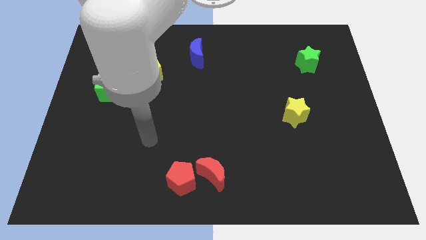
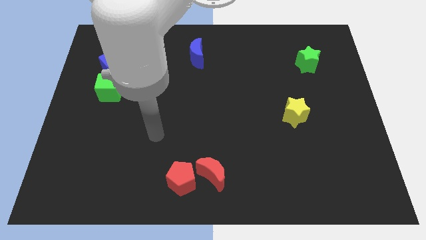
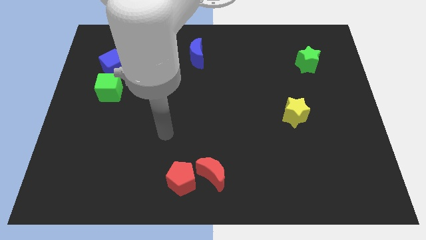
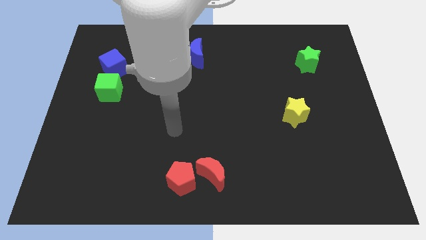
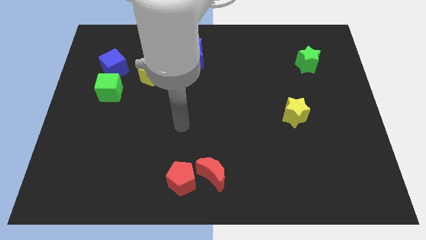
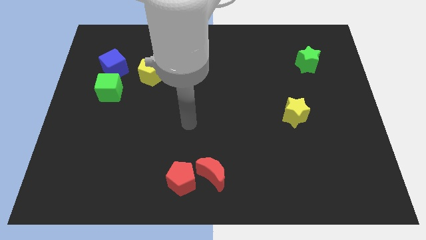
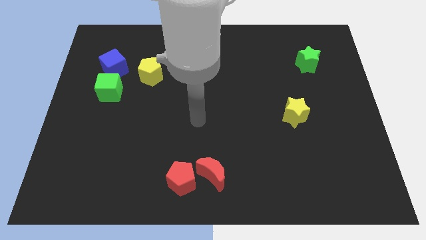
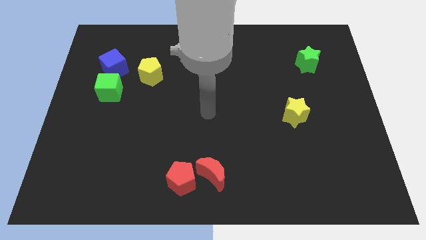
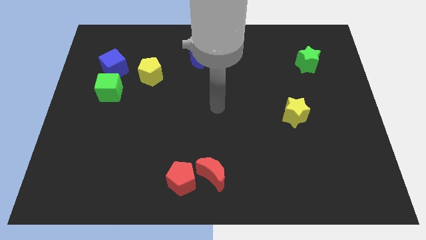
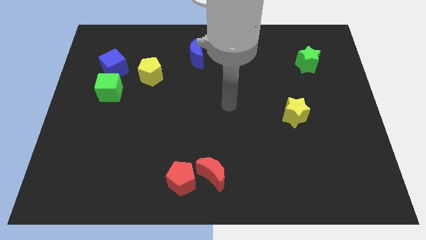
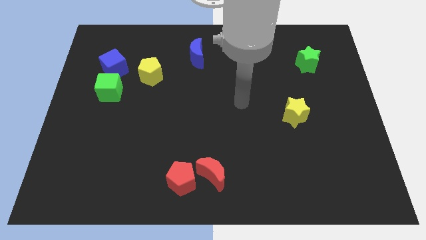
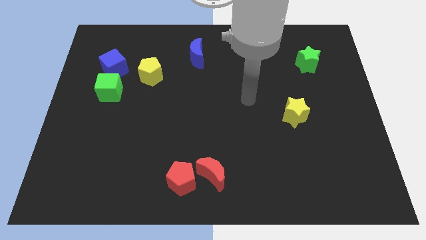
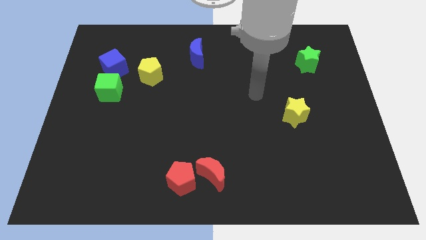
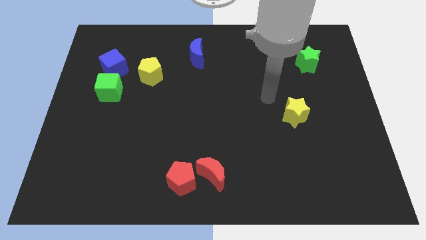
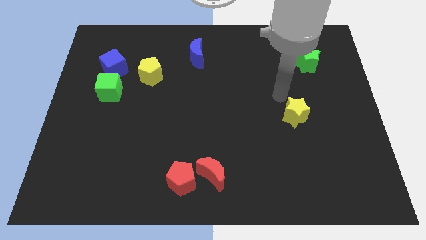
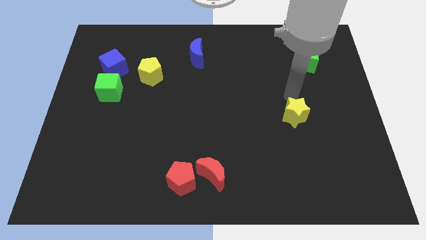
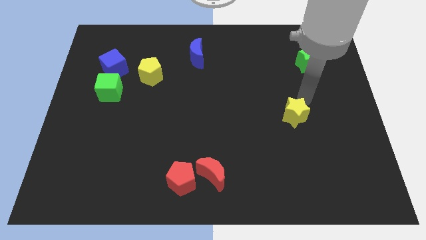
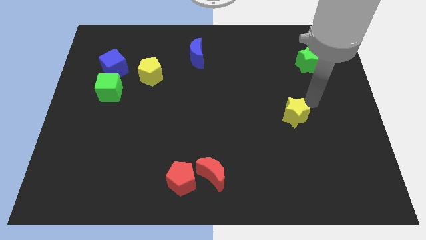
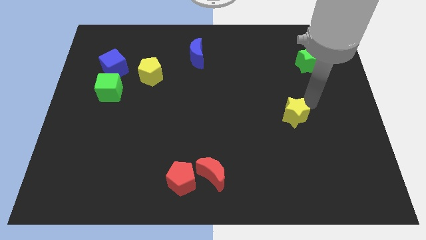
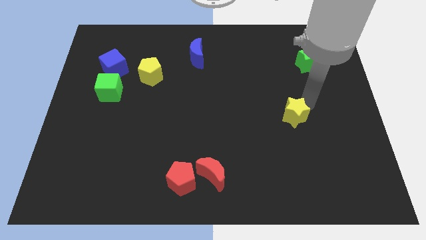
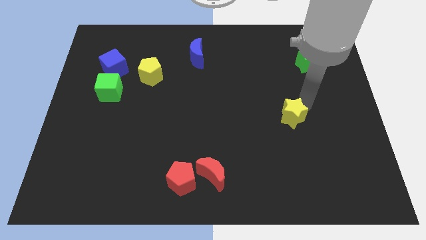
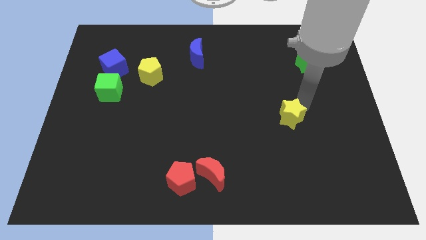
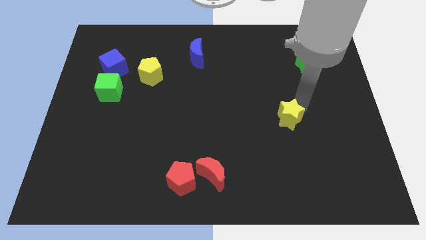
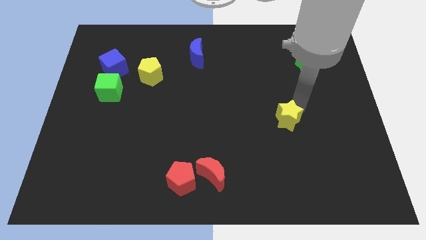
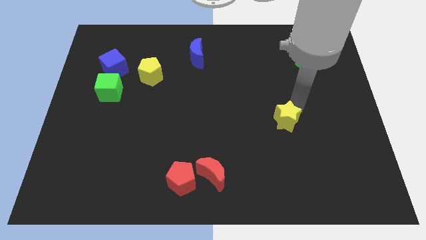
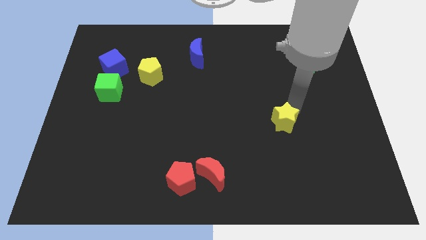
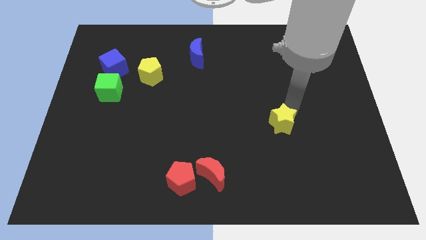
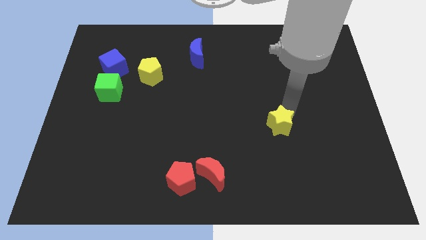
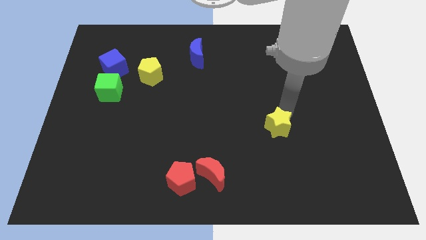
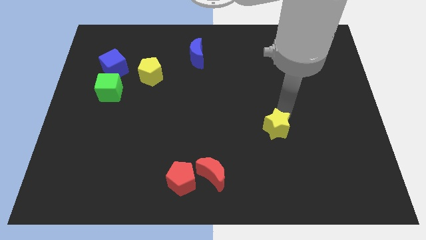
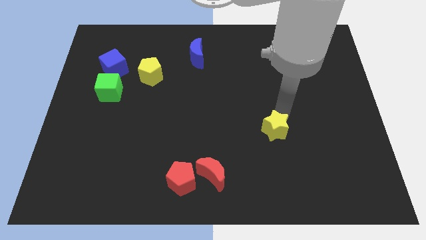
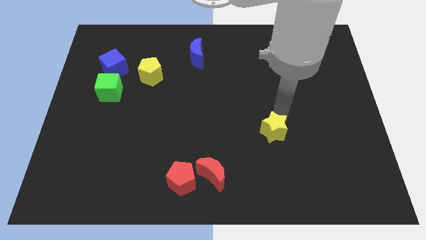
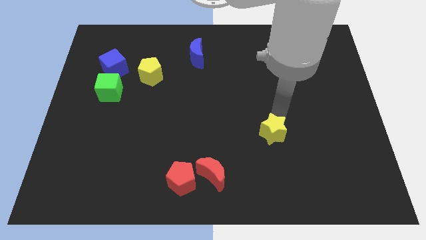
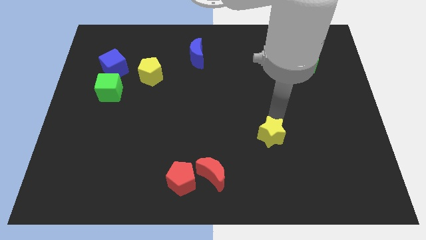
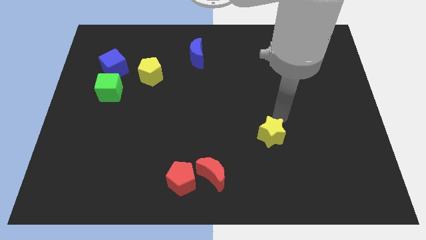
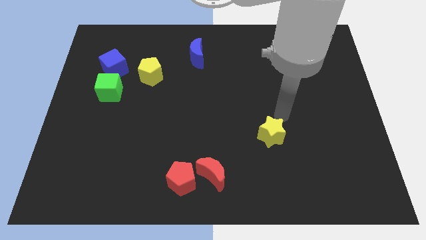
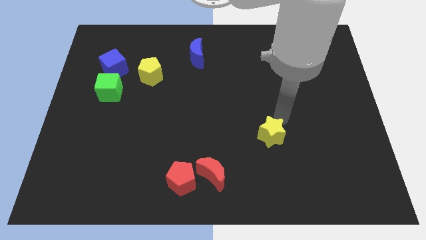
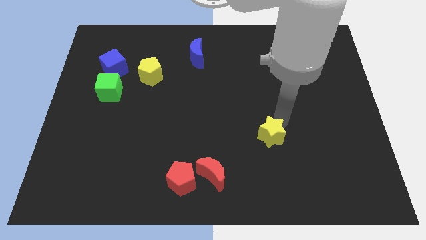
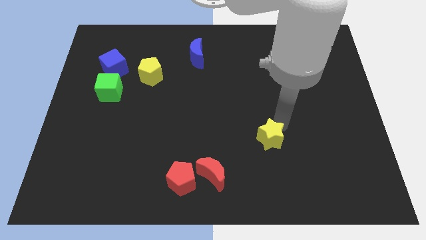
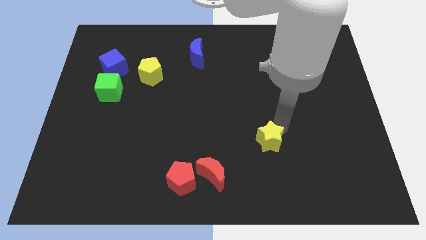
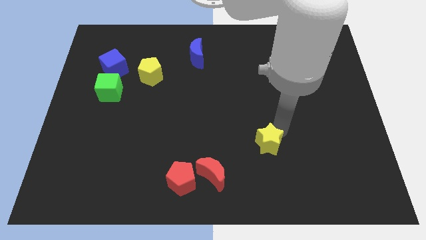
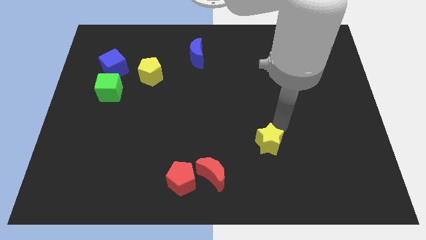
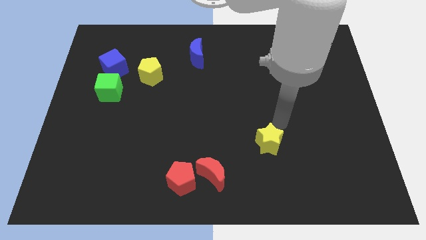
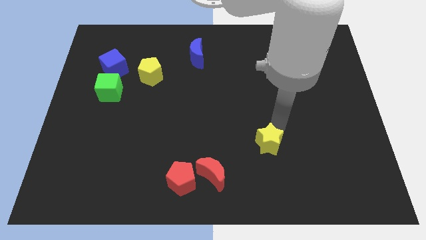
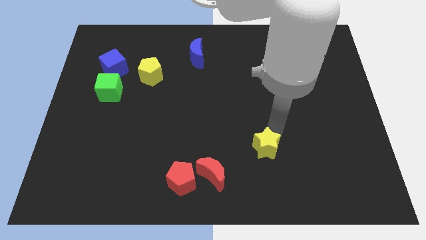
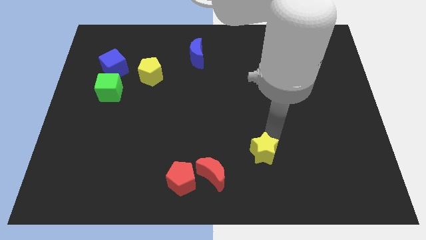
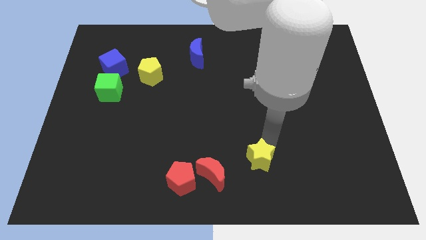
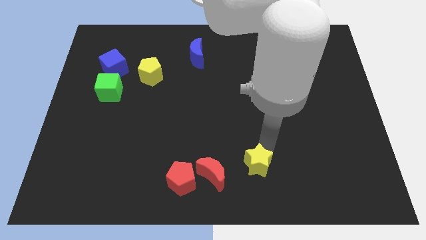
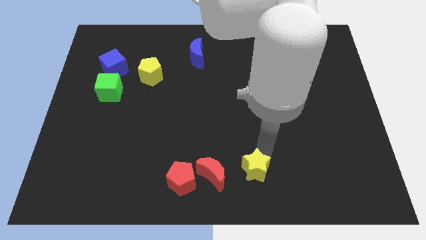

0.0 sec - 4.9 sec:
push the yellow star to the bottom

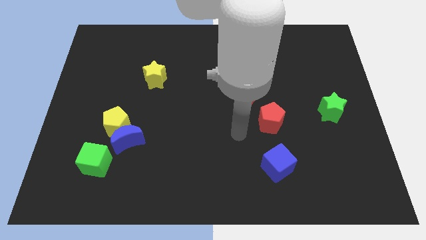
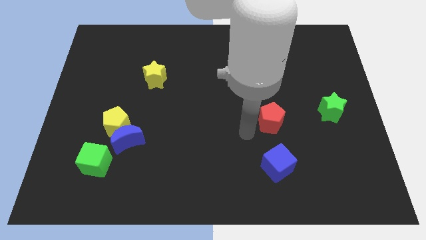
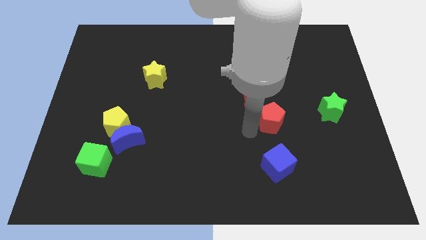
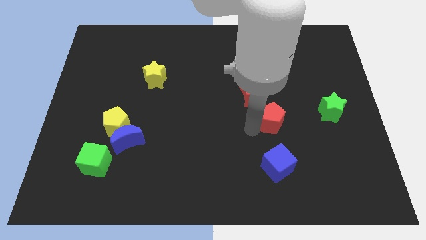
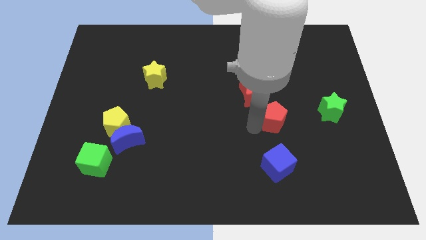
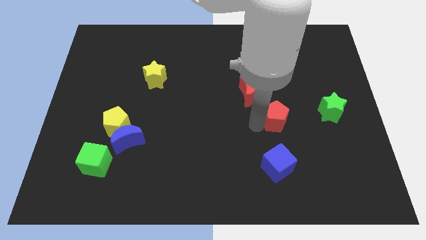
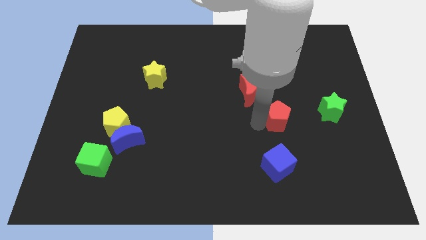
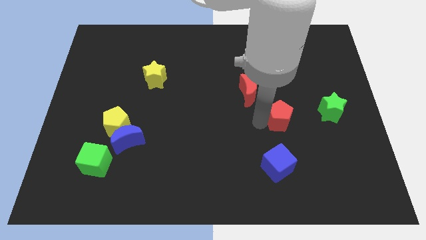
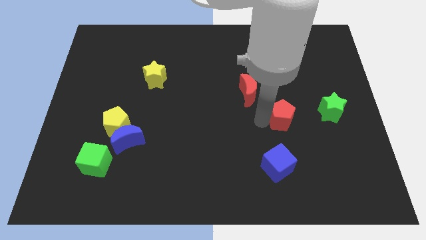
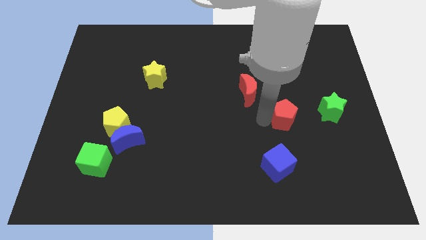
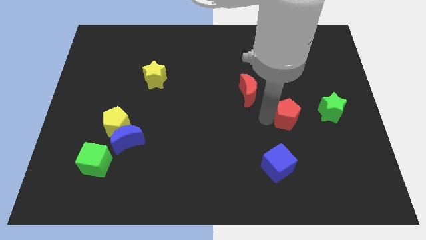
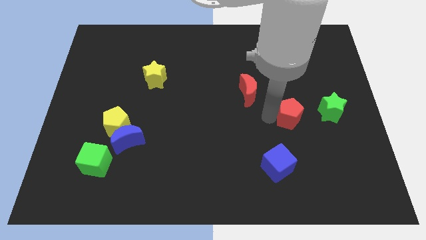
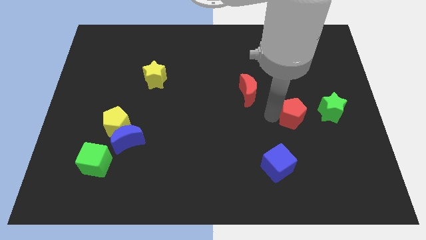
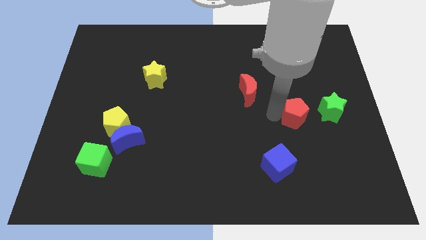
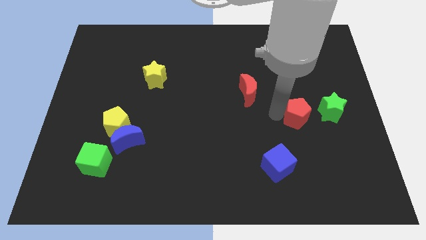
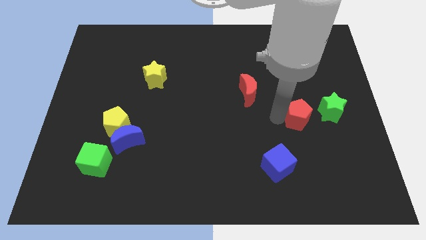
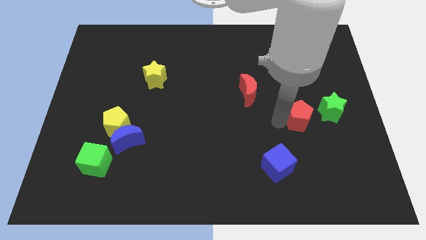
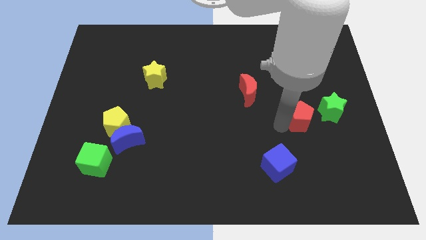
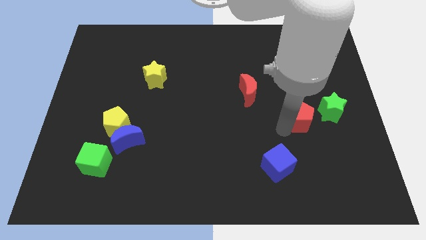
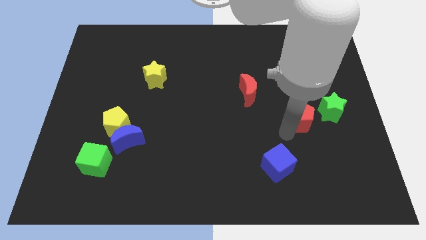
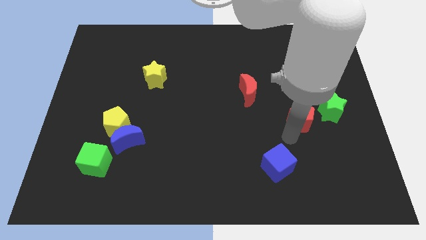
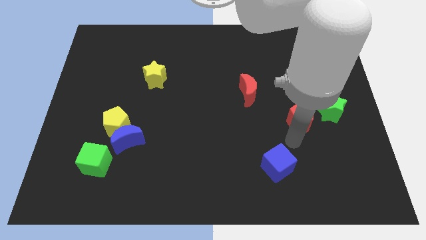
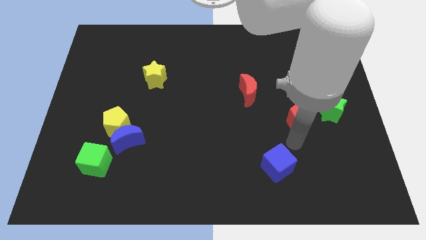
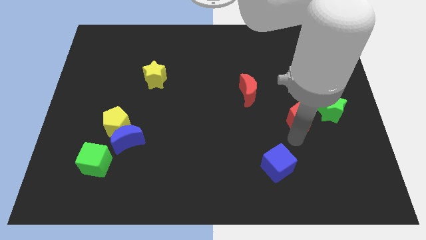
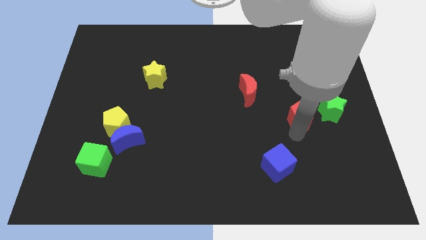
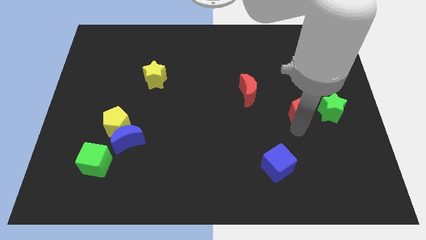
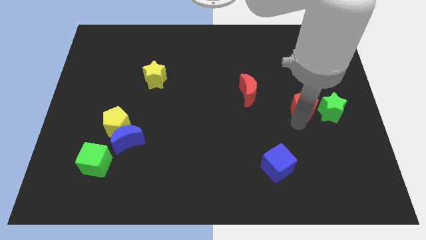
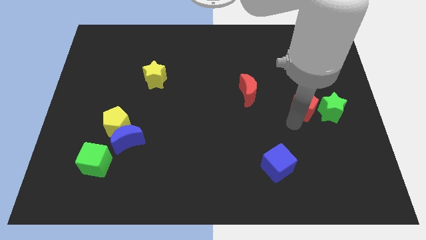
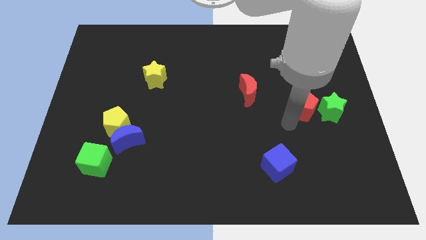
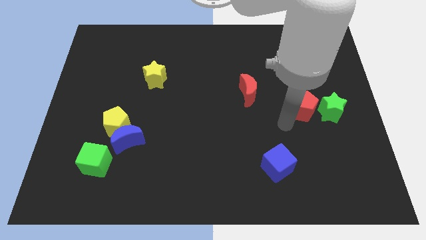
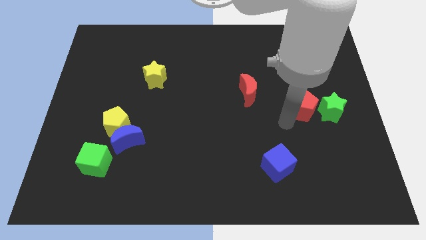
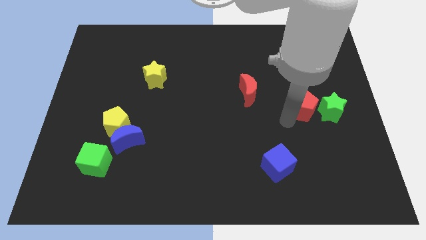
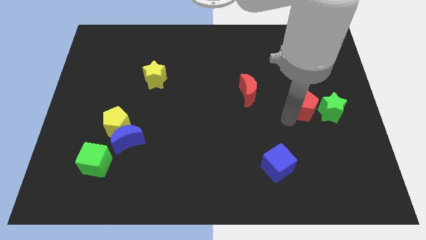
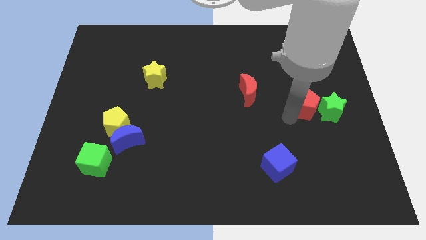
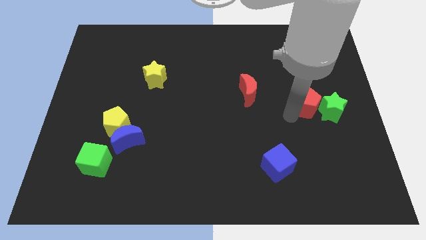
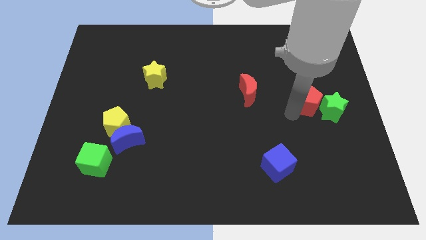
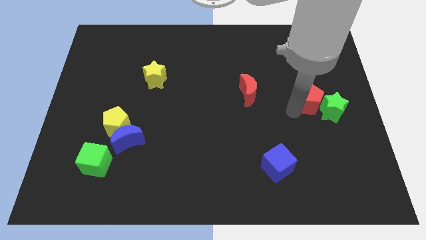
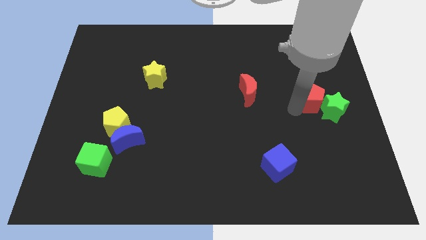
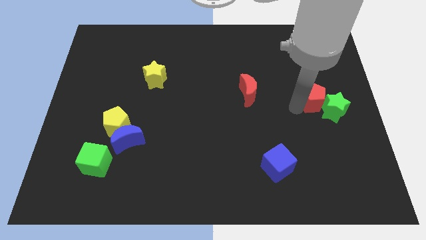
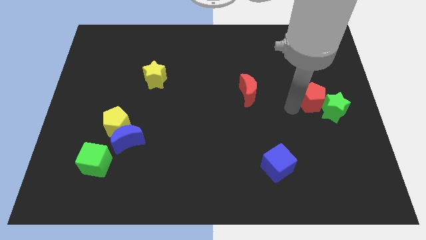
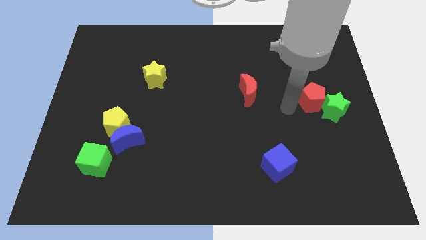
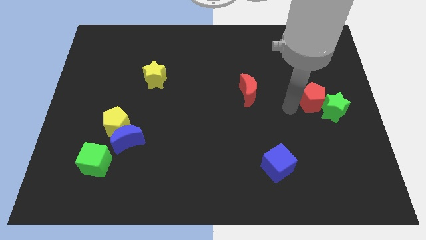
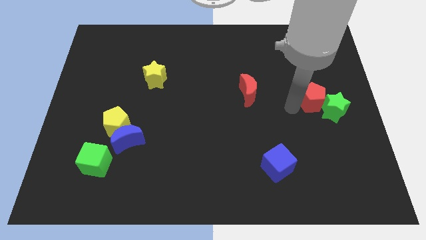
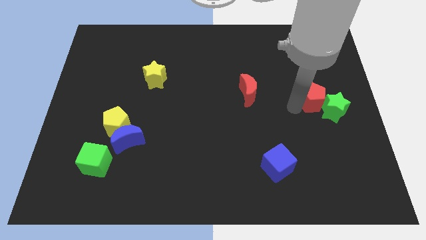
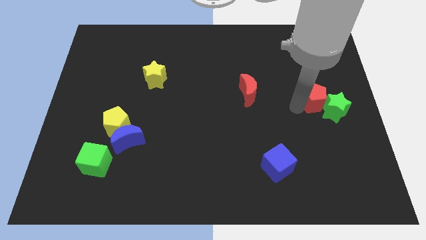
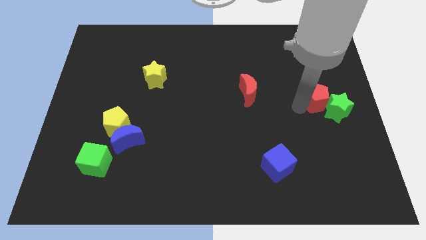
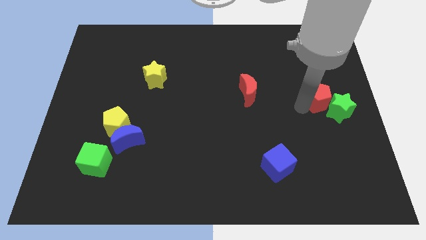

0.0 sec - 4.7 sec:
slide the red pentagon to the center right
